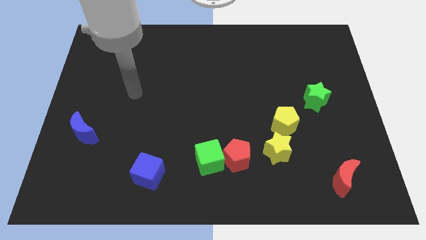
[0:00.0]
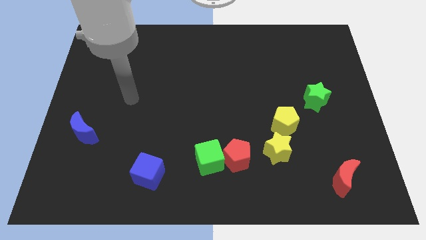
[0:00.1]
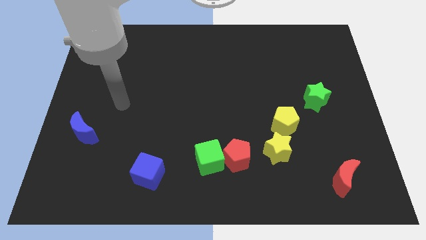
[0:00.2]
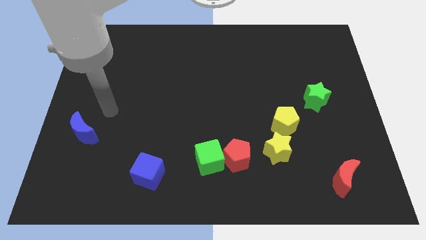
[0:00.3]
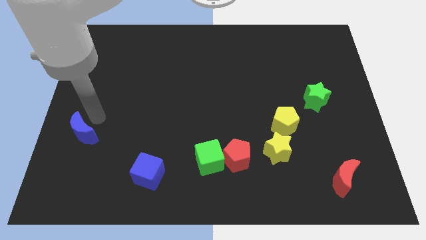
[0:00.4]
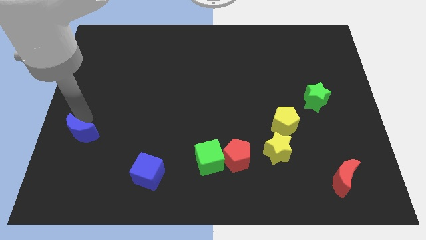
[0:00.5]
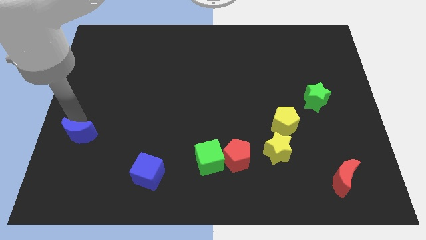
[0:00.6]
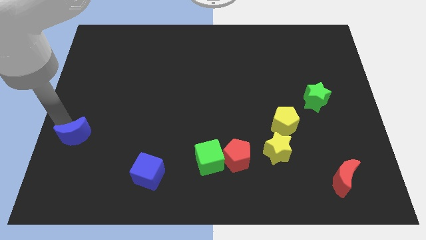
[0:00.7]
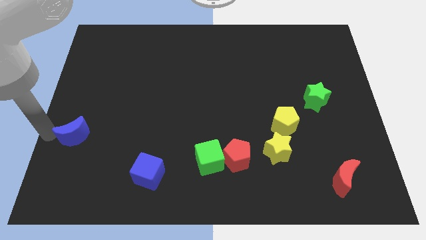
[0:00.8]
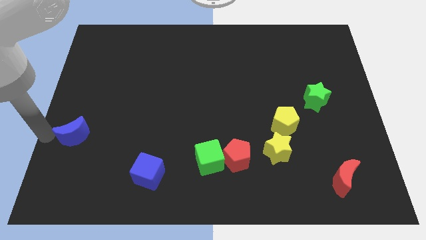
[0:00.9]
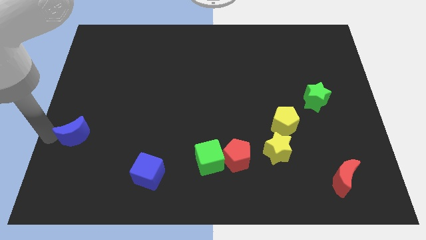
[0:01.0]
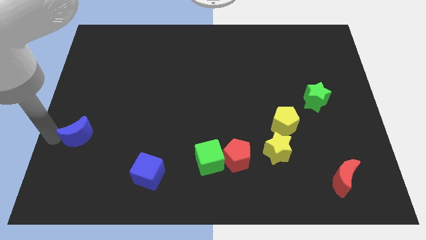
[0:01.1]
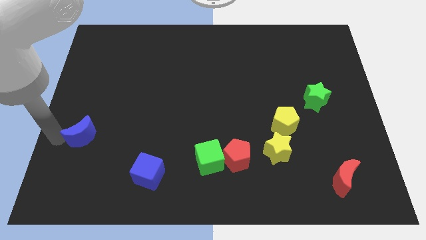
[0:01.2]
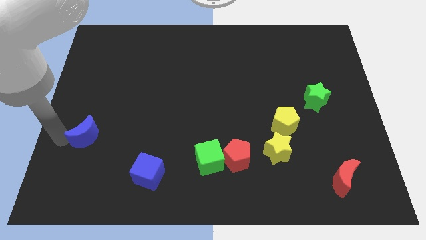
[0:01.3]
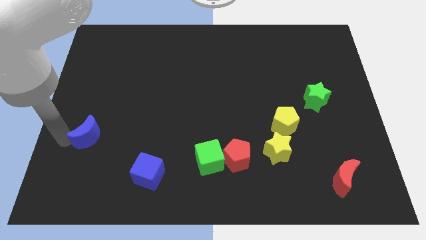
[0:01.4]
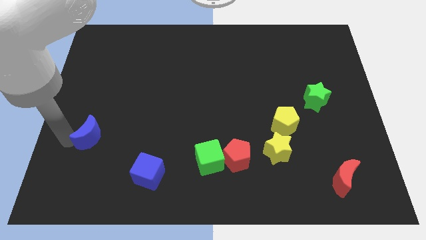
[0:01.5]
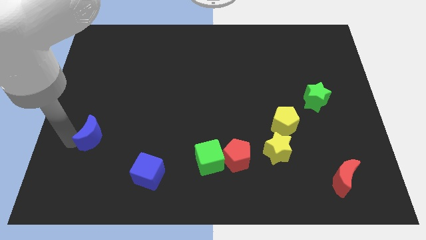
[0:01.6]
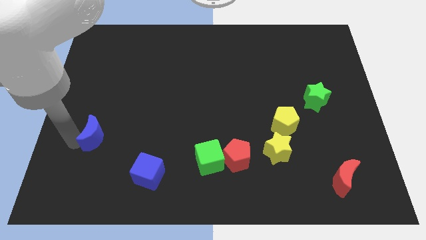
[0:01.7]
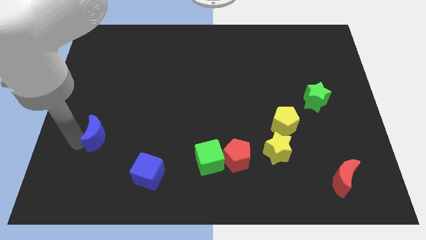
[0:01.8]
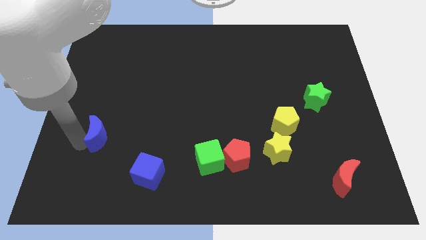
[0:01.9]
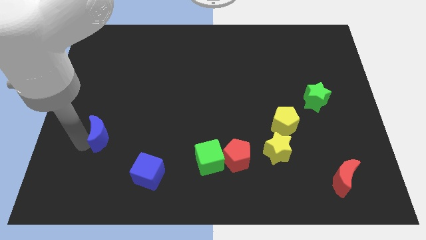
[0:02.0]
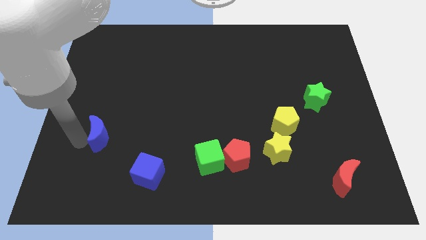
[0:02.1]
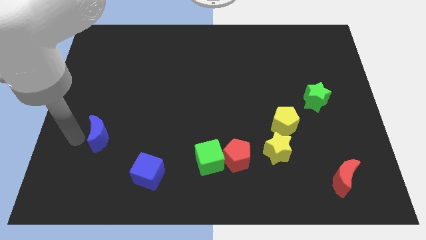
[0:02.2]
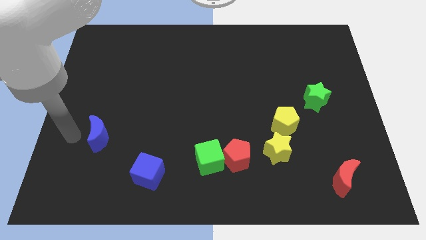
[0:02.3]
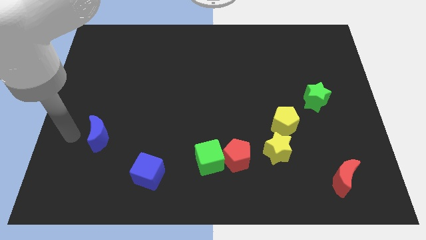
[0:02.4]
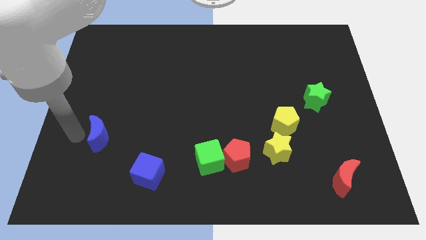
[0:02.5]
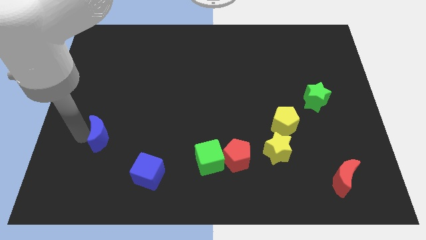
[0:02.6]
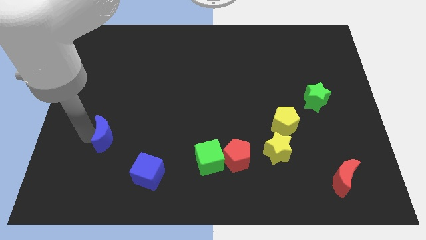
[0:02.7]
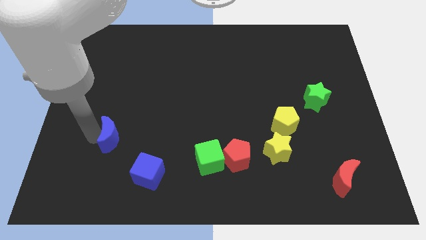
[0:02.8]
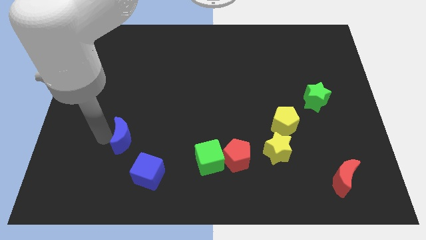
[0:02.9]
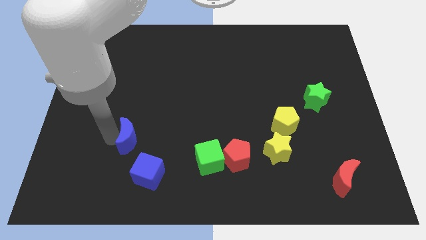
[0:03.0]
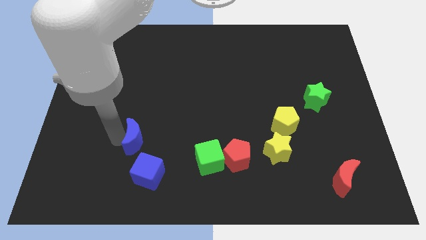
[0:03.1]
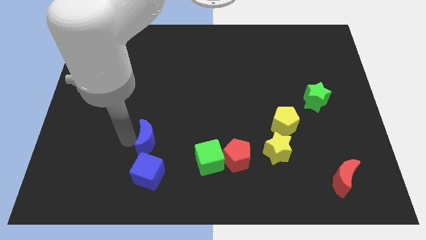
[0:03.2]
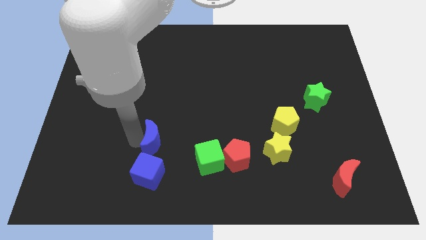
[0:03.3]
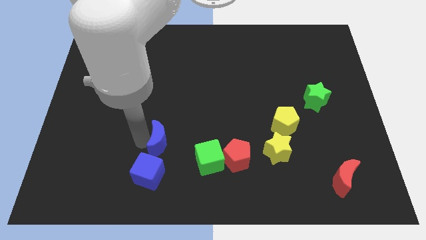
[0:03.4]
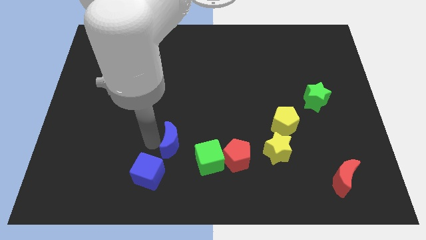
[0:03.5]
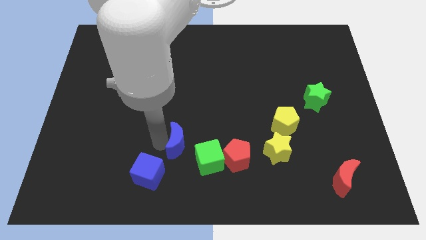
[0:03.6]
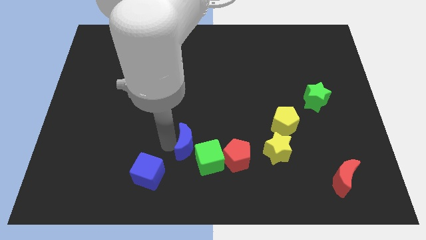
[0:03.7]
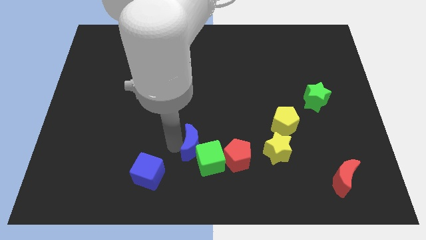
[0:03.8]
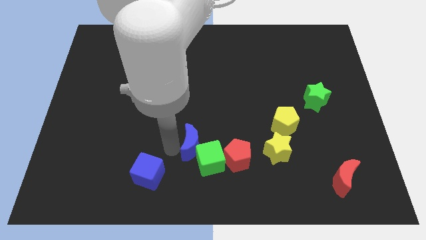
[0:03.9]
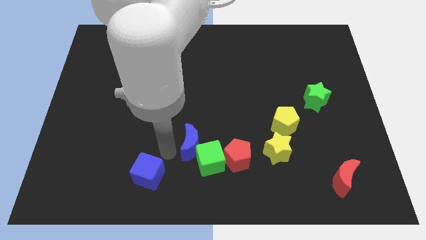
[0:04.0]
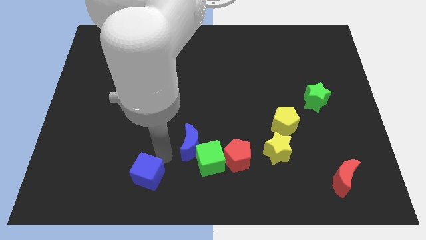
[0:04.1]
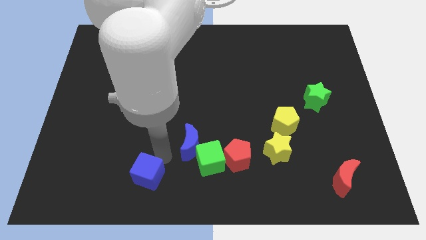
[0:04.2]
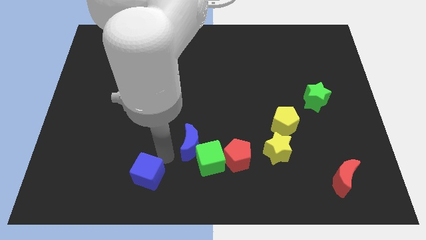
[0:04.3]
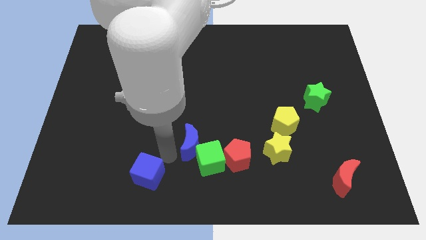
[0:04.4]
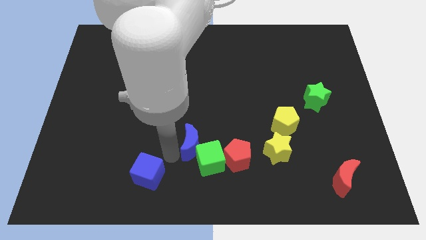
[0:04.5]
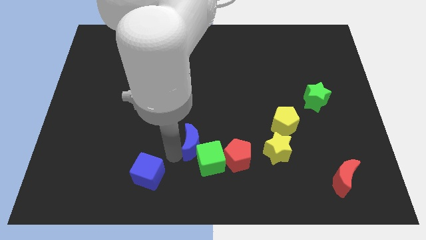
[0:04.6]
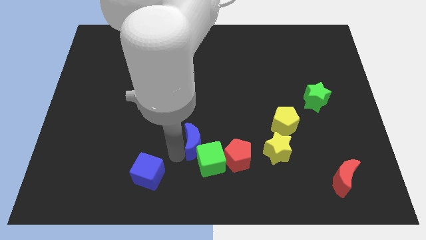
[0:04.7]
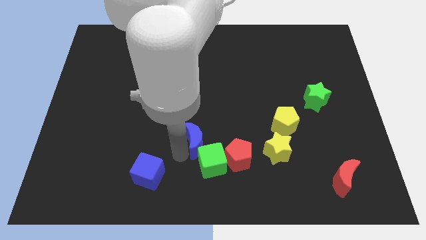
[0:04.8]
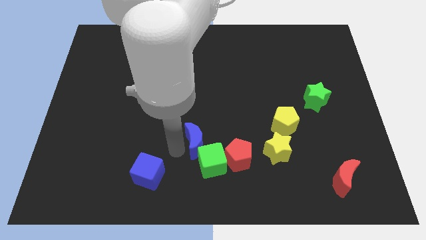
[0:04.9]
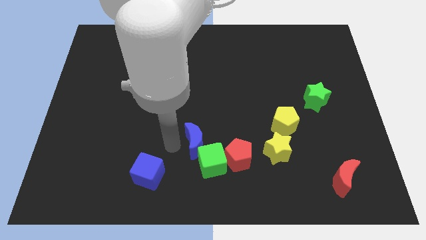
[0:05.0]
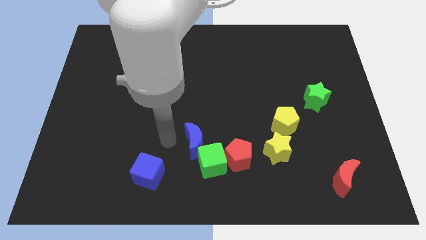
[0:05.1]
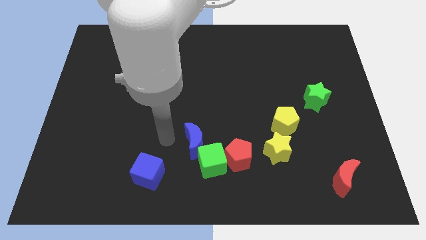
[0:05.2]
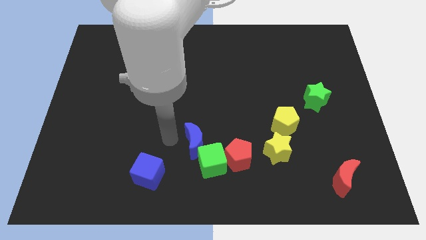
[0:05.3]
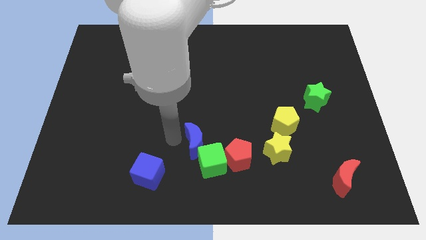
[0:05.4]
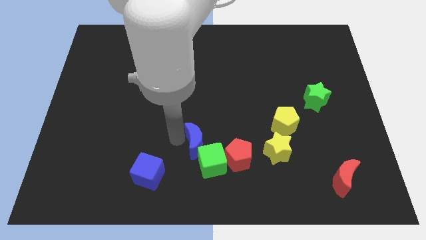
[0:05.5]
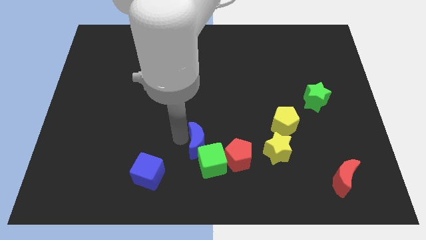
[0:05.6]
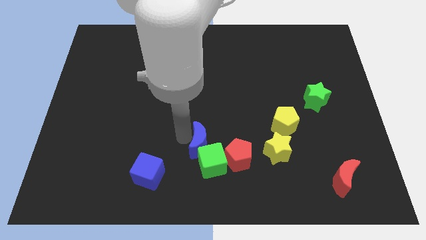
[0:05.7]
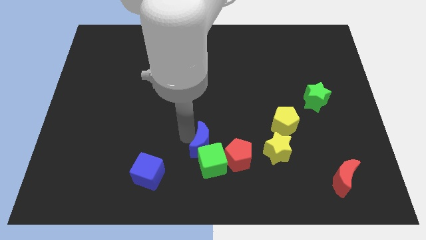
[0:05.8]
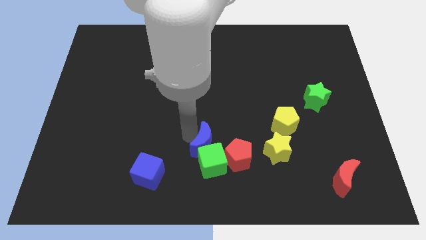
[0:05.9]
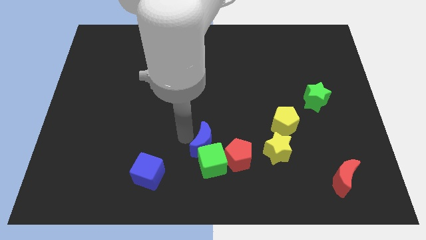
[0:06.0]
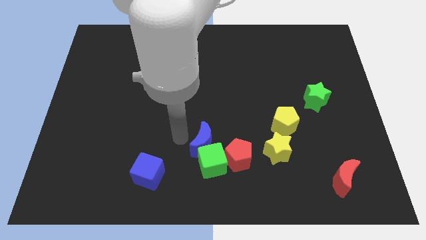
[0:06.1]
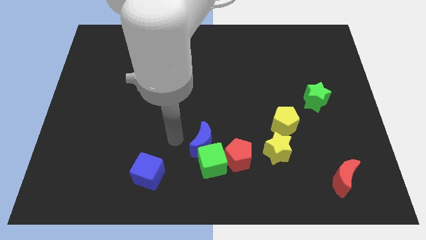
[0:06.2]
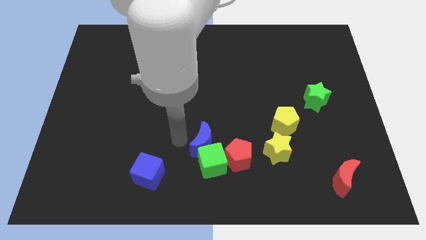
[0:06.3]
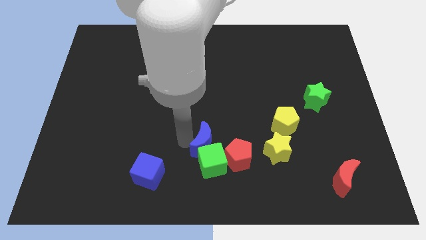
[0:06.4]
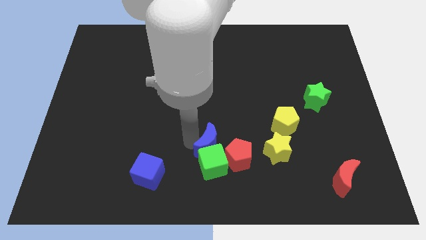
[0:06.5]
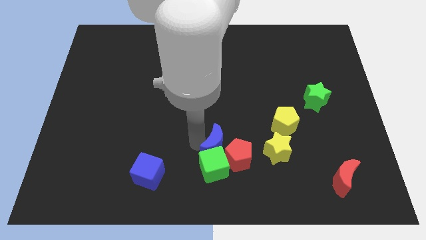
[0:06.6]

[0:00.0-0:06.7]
slide the blue moon close to the red pentagon
